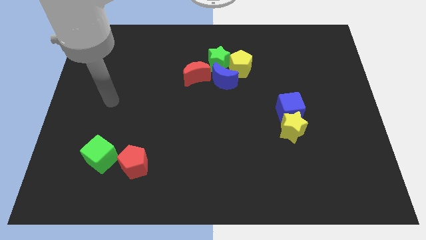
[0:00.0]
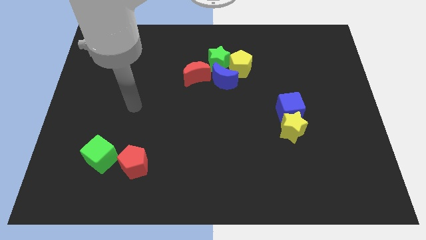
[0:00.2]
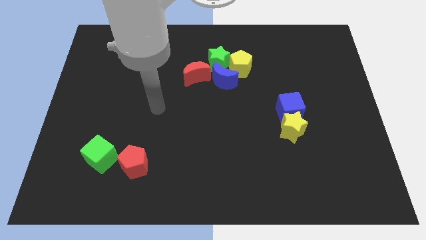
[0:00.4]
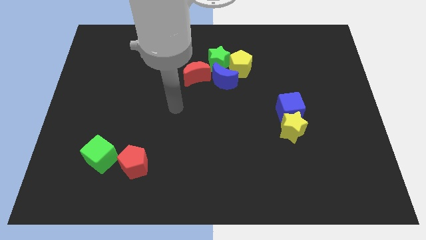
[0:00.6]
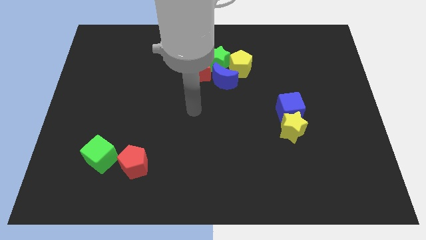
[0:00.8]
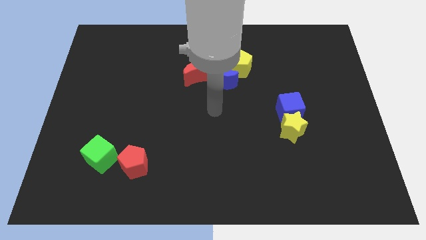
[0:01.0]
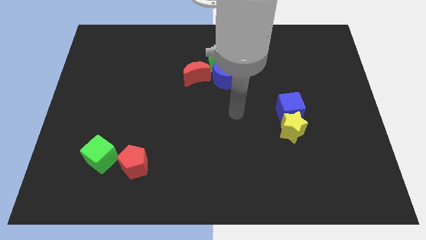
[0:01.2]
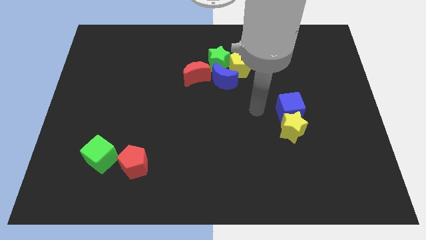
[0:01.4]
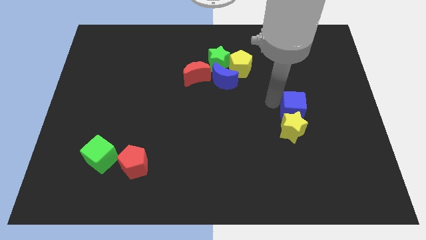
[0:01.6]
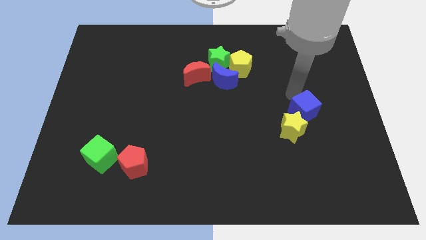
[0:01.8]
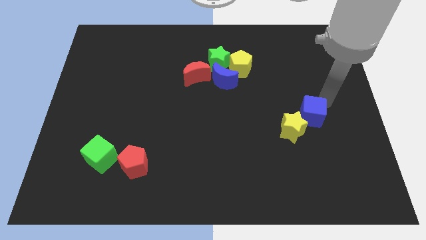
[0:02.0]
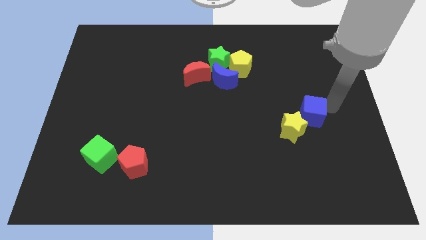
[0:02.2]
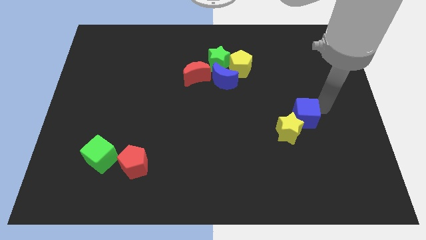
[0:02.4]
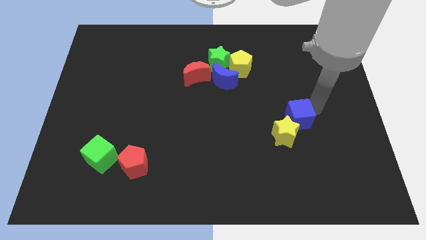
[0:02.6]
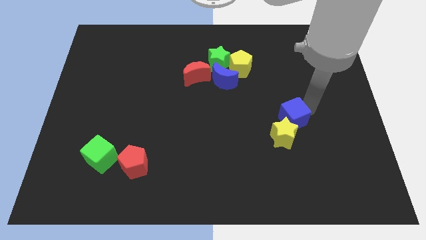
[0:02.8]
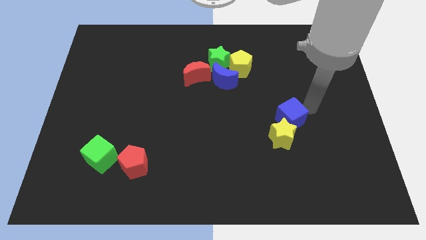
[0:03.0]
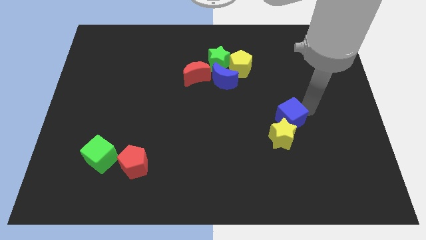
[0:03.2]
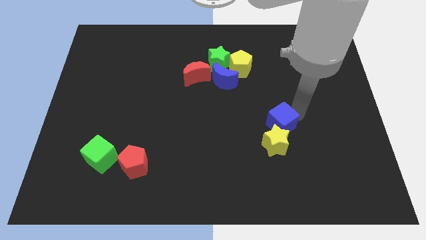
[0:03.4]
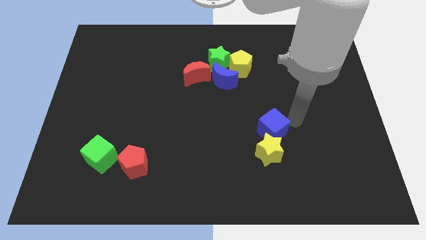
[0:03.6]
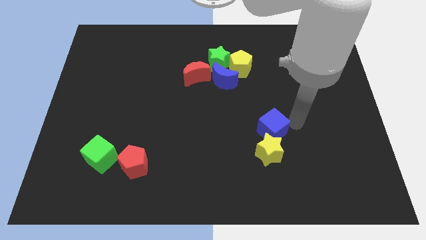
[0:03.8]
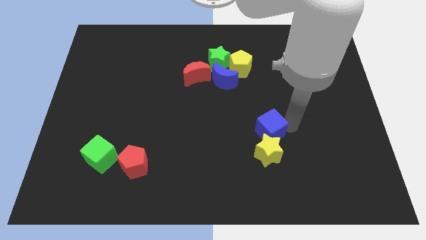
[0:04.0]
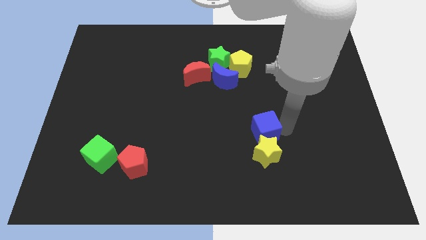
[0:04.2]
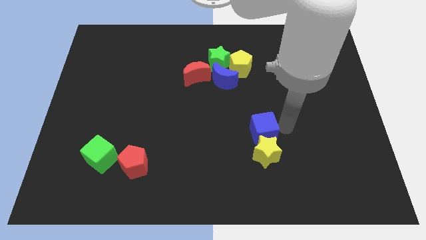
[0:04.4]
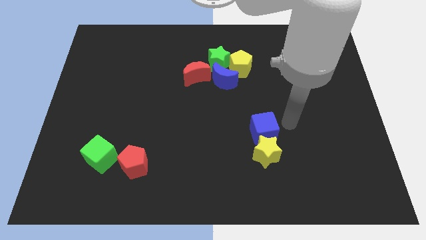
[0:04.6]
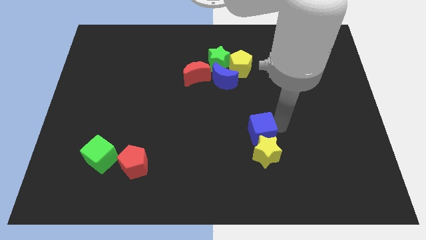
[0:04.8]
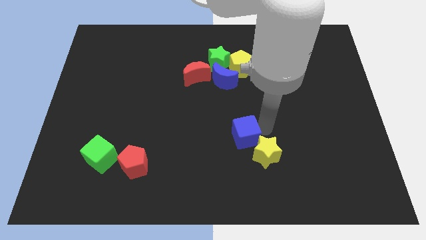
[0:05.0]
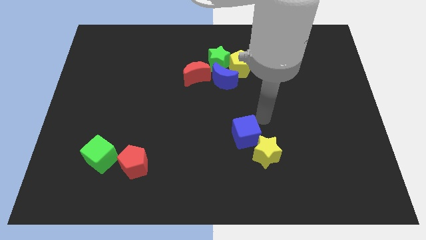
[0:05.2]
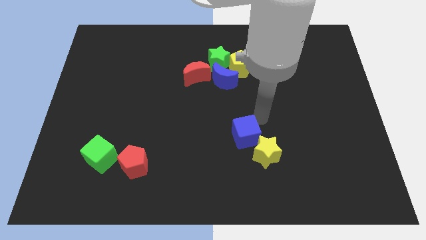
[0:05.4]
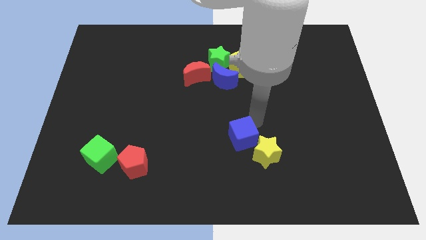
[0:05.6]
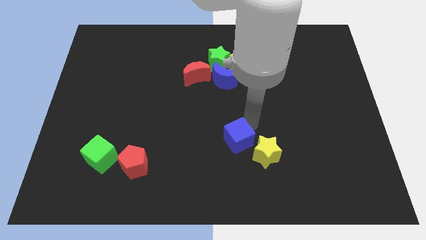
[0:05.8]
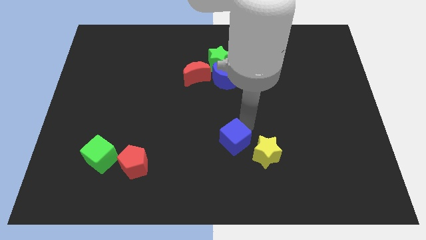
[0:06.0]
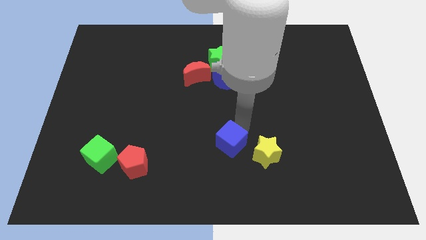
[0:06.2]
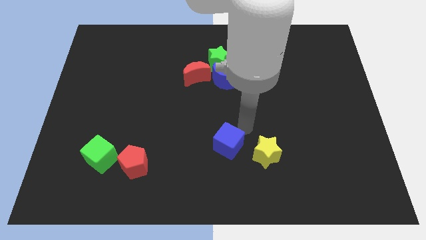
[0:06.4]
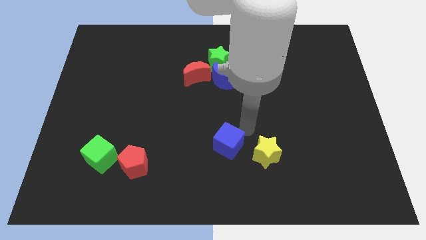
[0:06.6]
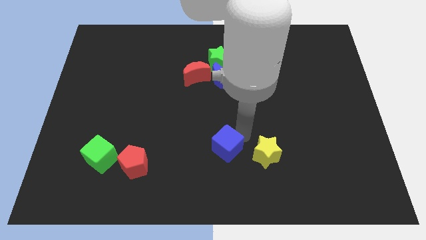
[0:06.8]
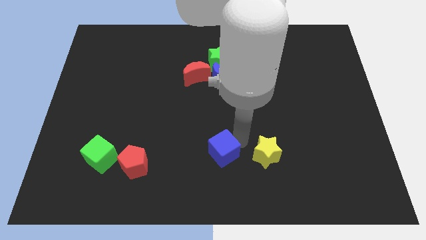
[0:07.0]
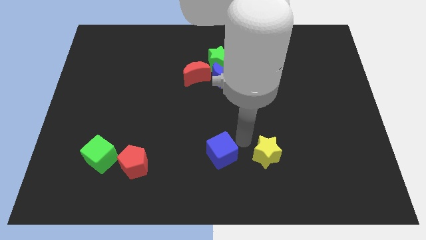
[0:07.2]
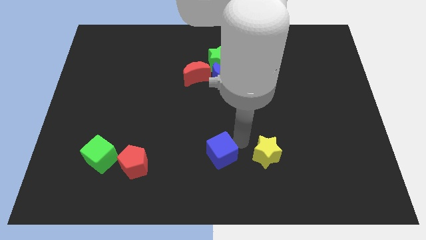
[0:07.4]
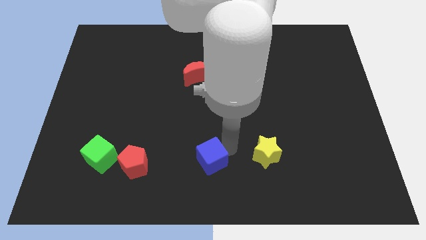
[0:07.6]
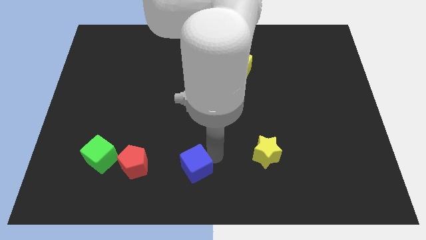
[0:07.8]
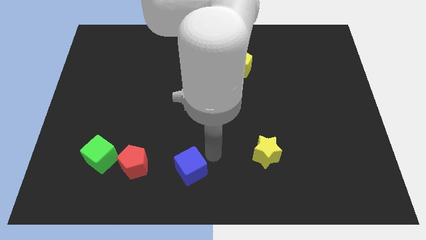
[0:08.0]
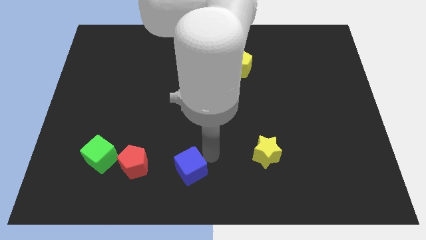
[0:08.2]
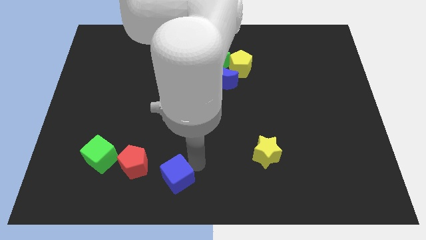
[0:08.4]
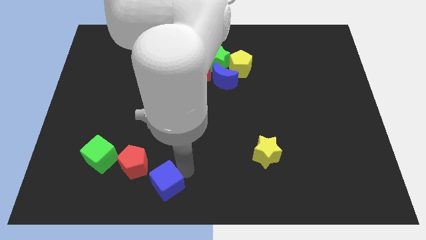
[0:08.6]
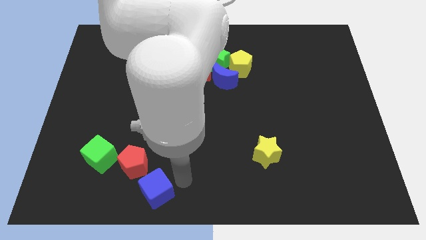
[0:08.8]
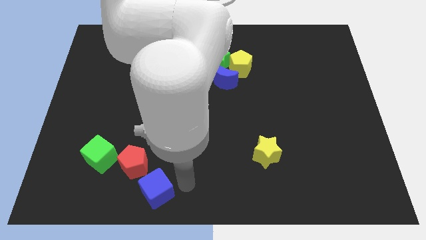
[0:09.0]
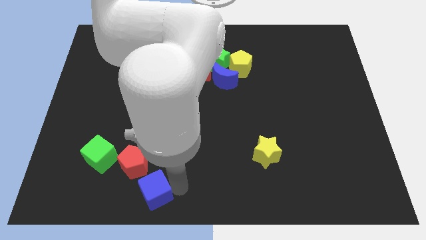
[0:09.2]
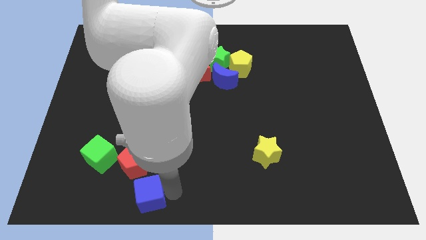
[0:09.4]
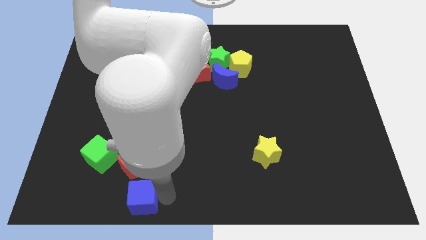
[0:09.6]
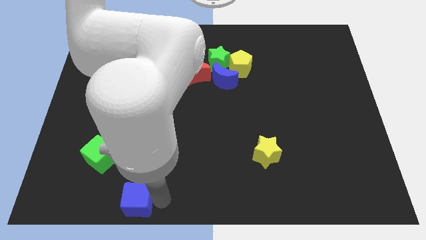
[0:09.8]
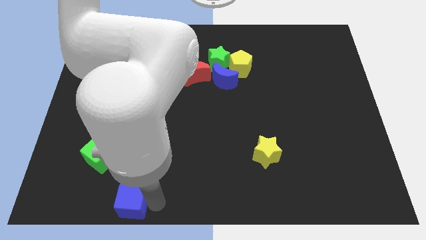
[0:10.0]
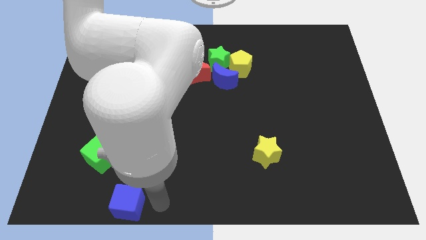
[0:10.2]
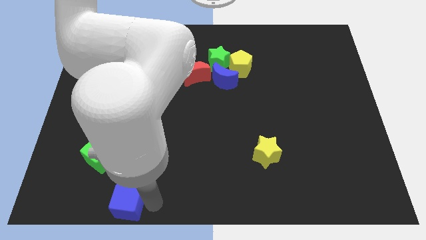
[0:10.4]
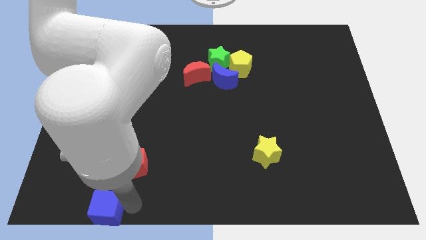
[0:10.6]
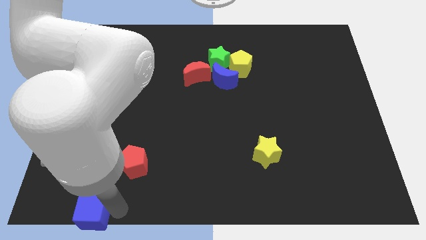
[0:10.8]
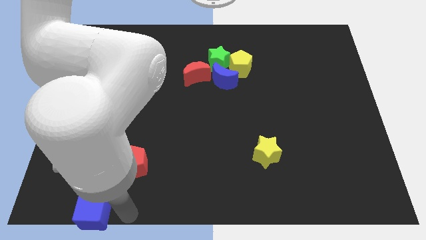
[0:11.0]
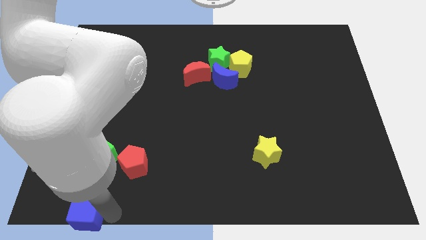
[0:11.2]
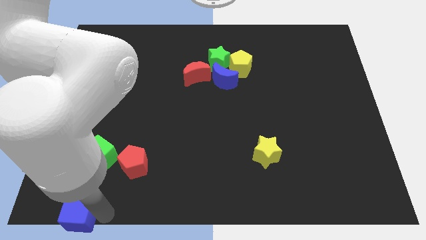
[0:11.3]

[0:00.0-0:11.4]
slide the blue cube to the bottom left corner

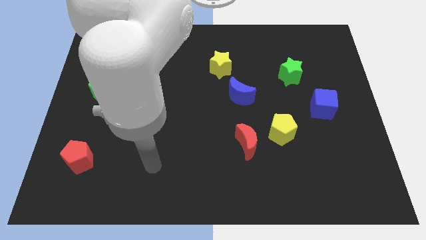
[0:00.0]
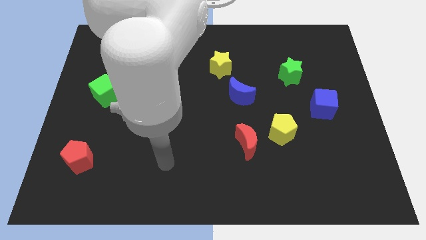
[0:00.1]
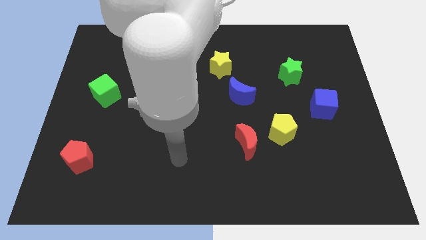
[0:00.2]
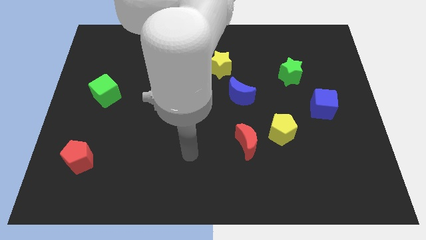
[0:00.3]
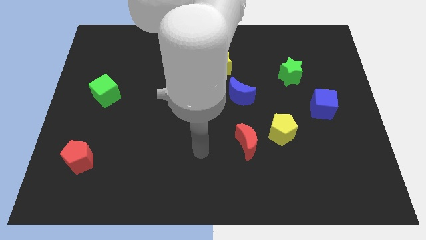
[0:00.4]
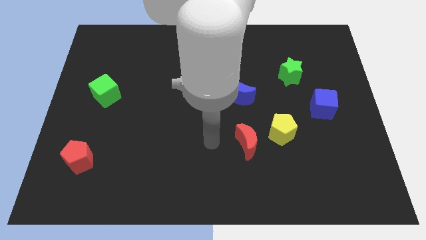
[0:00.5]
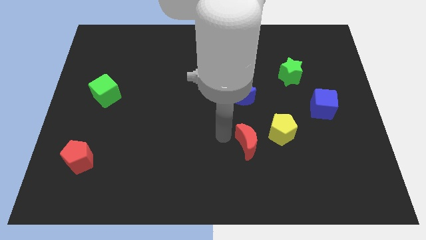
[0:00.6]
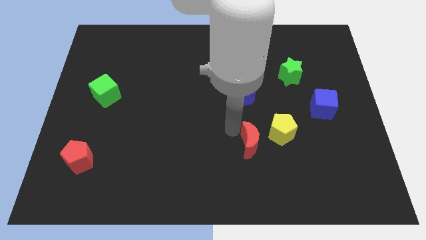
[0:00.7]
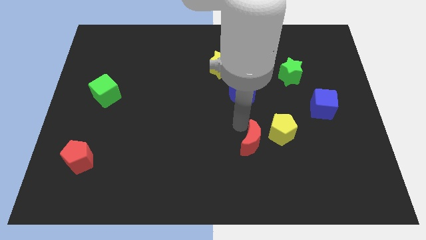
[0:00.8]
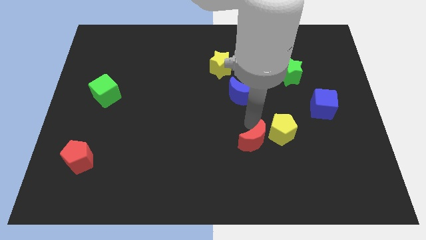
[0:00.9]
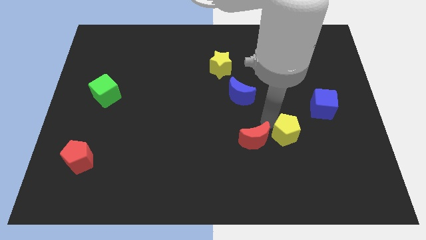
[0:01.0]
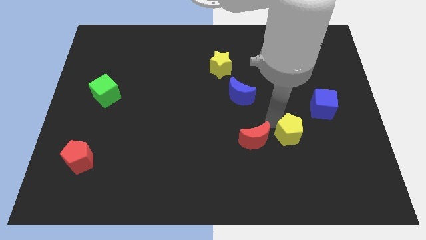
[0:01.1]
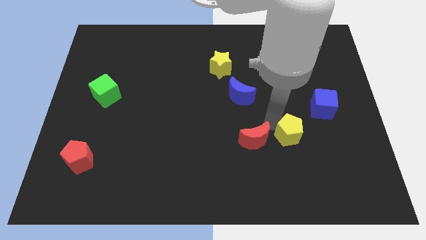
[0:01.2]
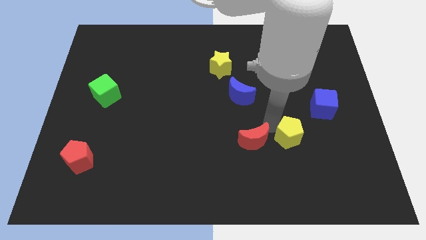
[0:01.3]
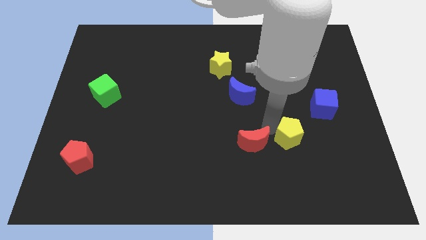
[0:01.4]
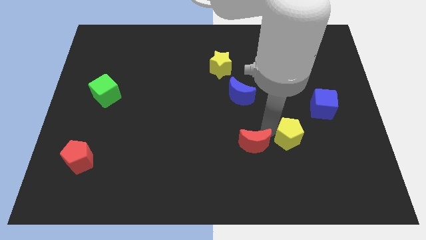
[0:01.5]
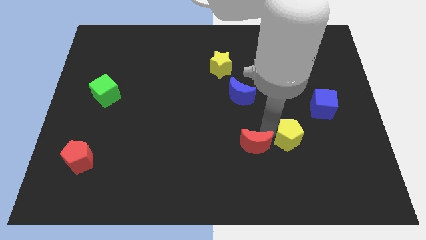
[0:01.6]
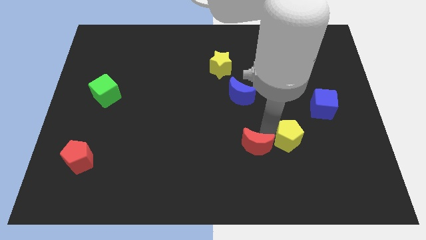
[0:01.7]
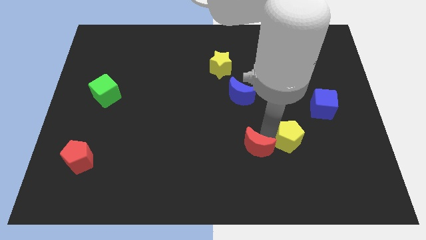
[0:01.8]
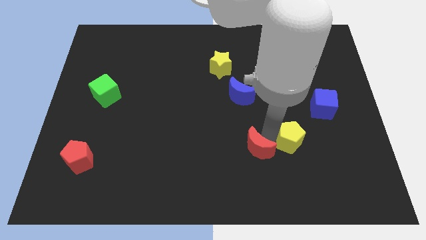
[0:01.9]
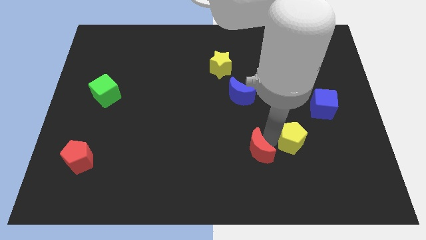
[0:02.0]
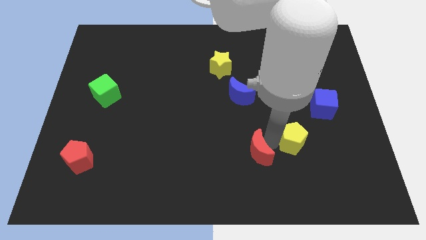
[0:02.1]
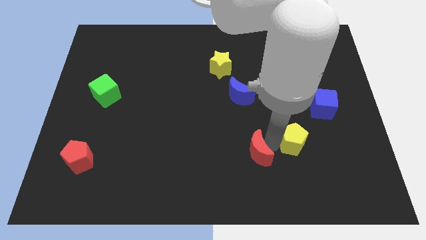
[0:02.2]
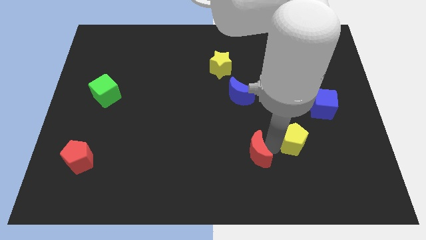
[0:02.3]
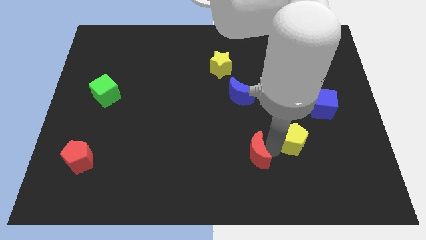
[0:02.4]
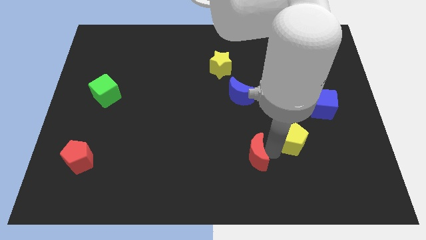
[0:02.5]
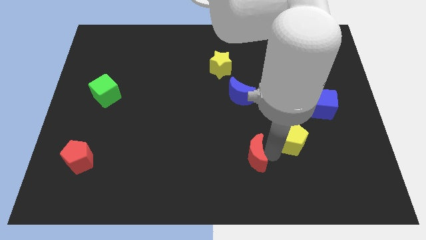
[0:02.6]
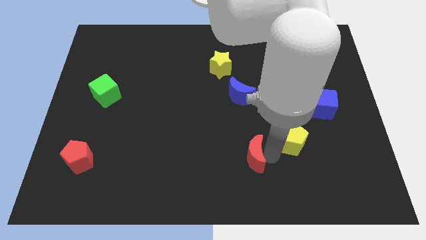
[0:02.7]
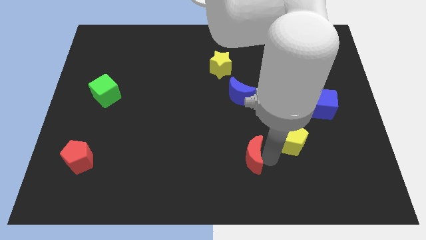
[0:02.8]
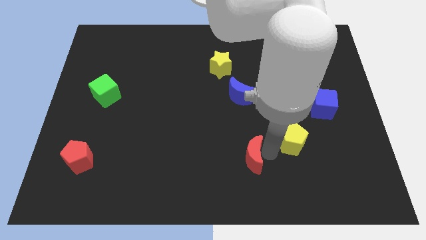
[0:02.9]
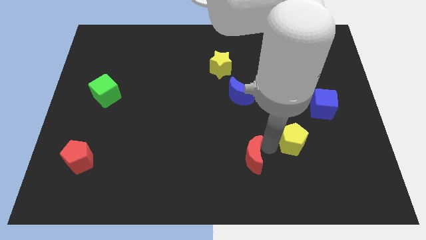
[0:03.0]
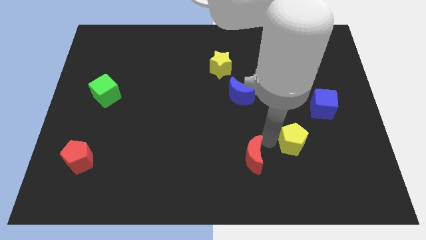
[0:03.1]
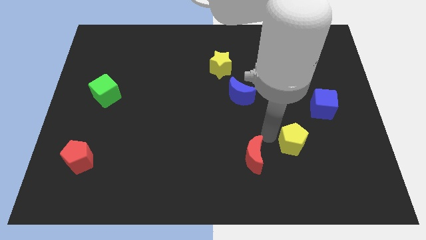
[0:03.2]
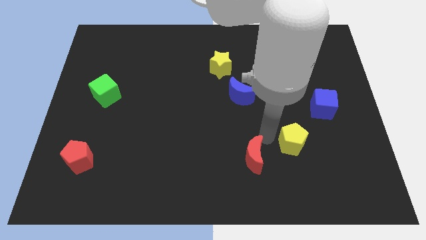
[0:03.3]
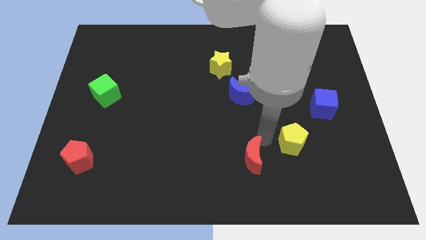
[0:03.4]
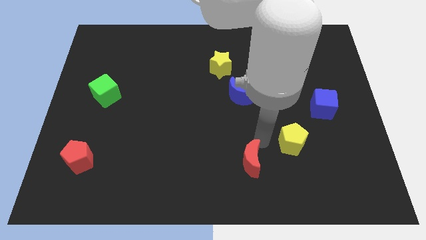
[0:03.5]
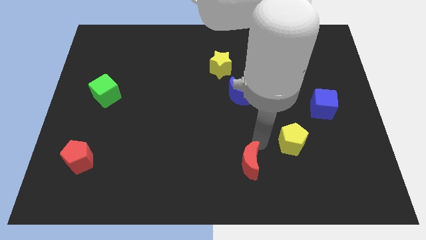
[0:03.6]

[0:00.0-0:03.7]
slide the red moon to the bottom
